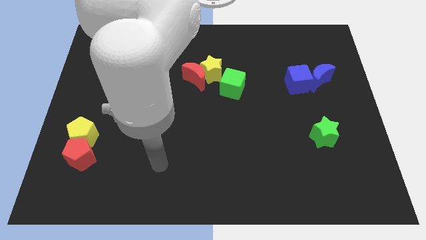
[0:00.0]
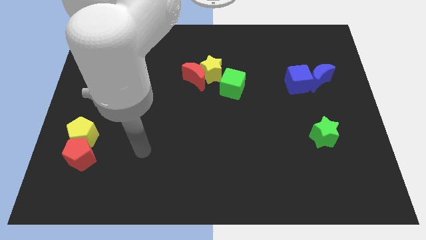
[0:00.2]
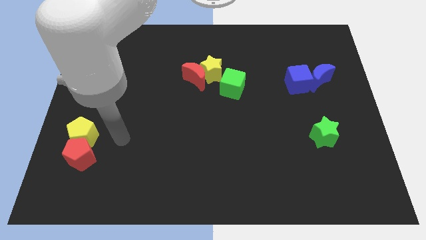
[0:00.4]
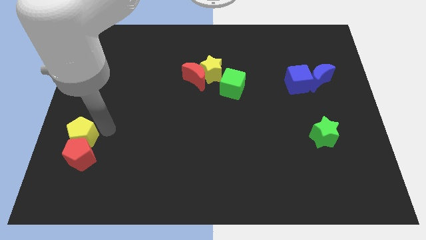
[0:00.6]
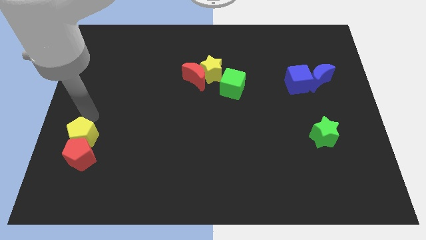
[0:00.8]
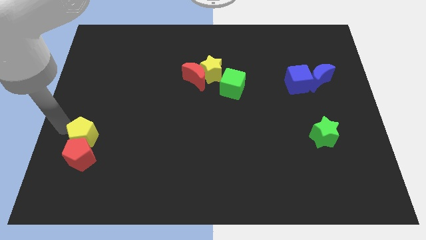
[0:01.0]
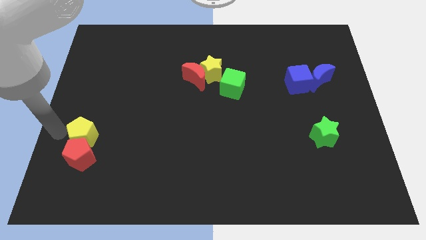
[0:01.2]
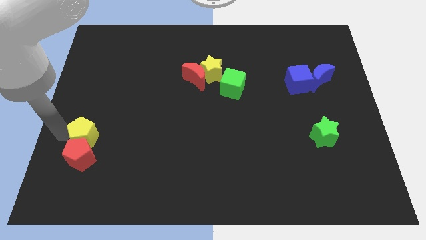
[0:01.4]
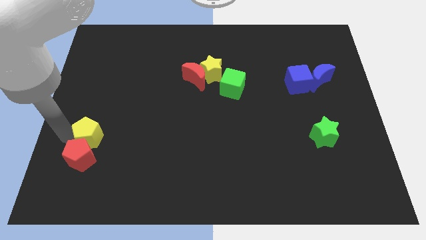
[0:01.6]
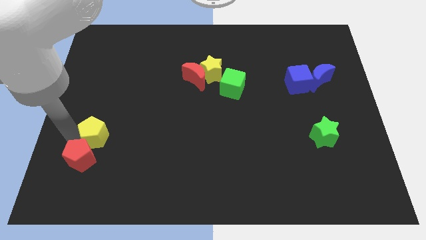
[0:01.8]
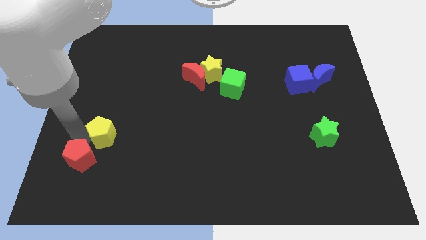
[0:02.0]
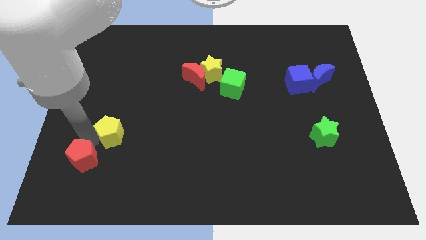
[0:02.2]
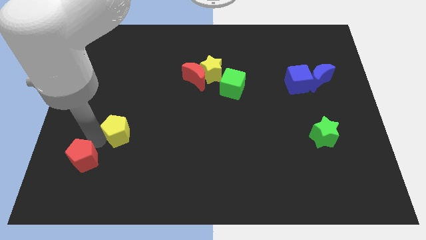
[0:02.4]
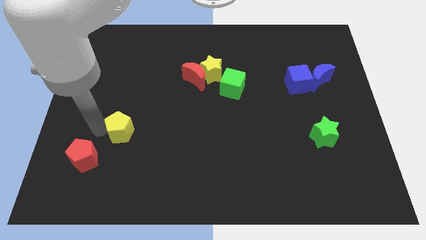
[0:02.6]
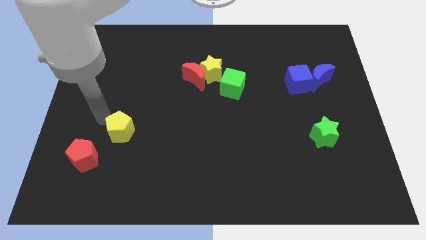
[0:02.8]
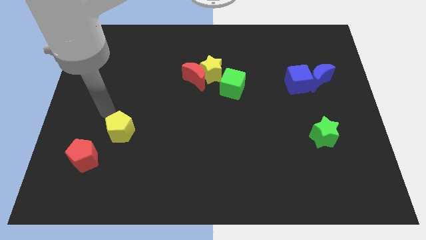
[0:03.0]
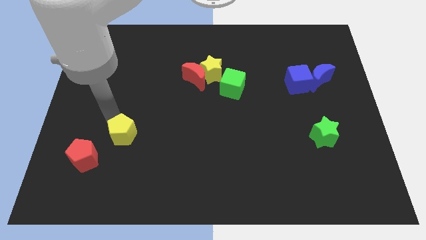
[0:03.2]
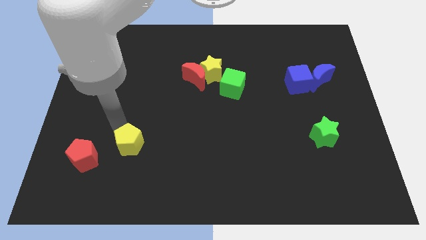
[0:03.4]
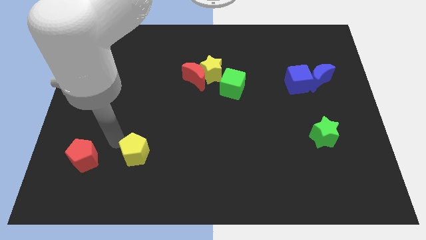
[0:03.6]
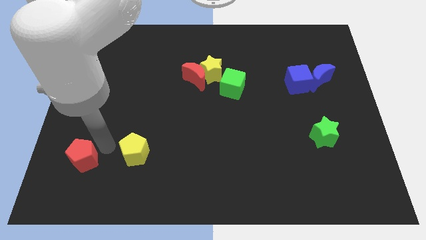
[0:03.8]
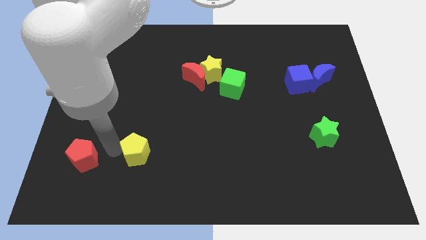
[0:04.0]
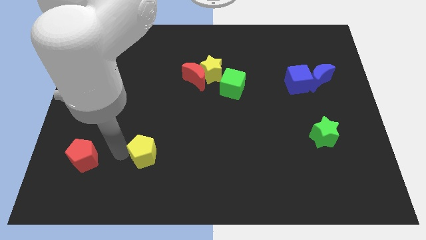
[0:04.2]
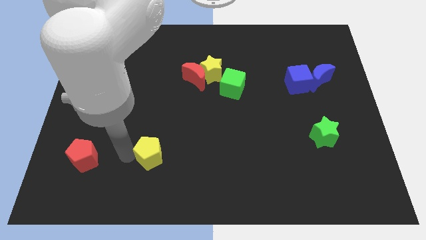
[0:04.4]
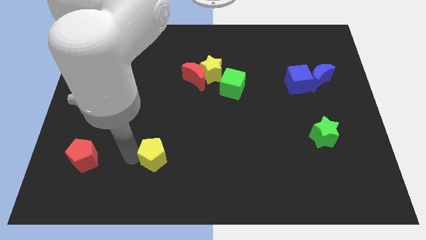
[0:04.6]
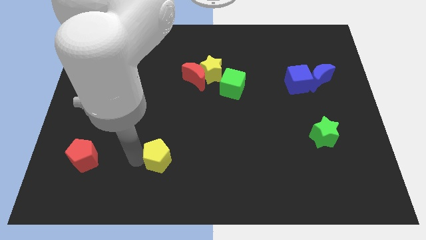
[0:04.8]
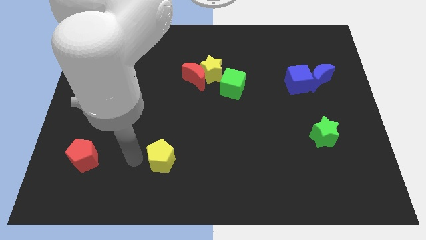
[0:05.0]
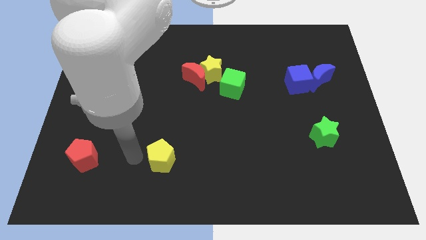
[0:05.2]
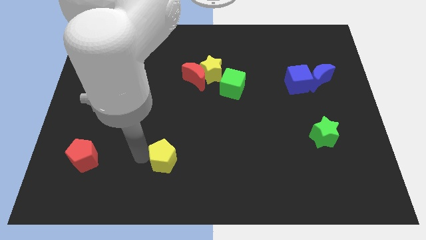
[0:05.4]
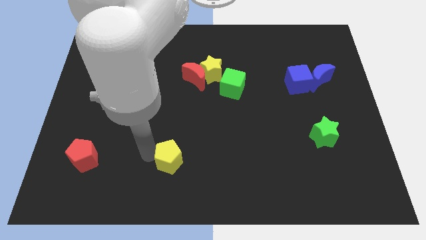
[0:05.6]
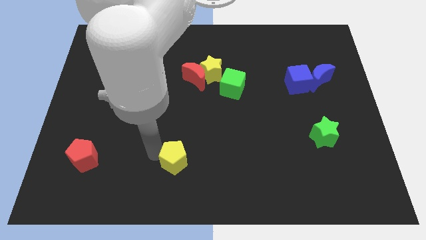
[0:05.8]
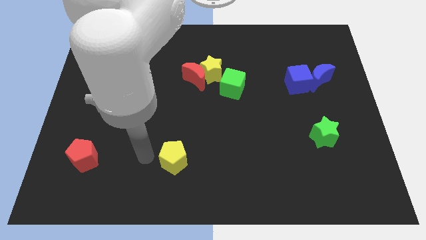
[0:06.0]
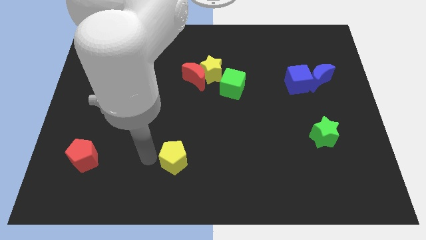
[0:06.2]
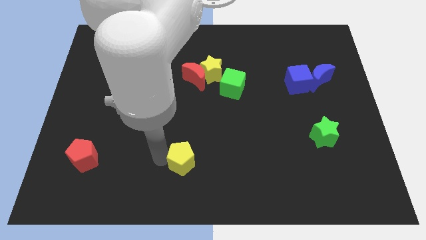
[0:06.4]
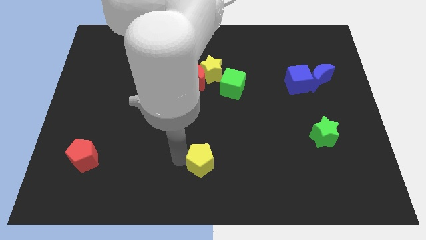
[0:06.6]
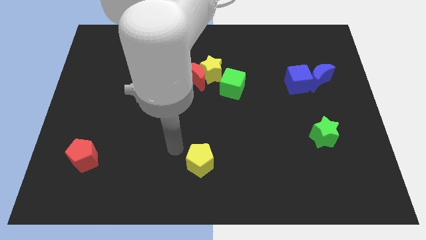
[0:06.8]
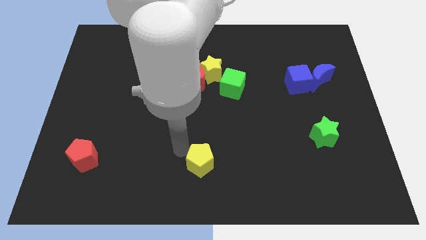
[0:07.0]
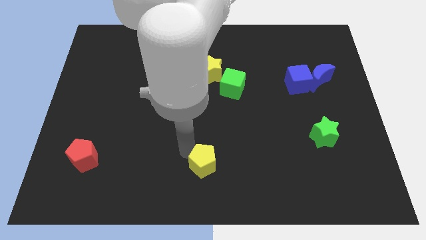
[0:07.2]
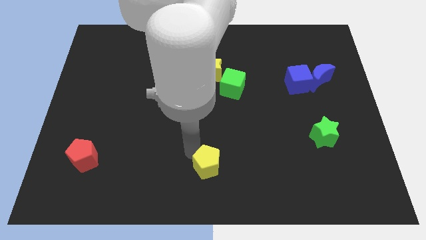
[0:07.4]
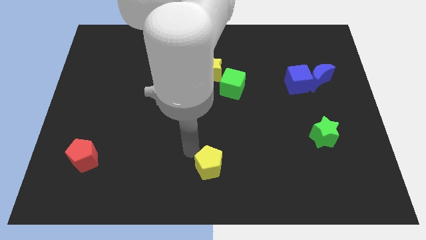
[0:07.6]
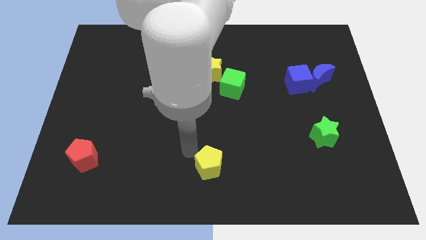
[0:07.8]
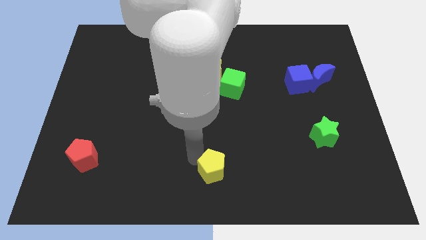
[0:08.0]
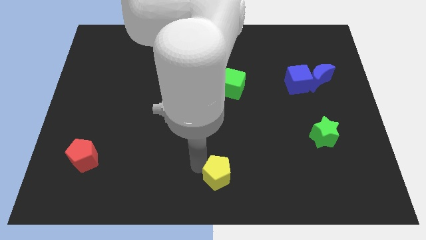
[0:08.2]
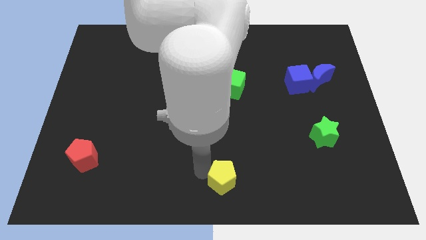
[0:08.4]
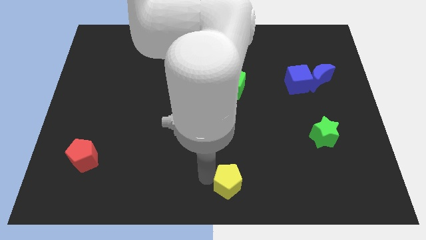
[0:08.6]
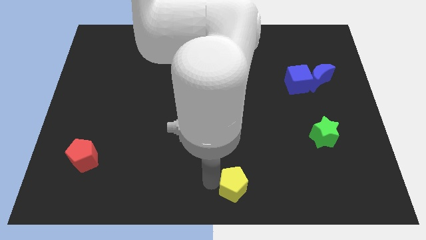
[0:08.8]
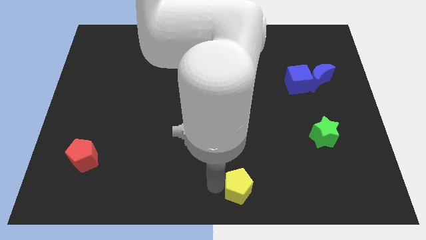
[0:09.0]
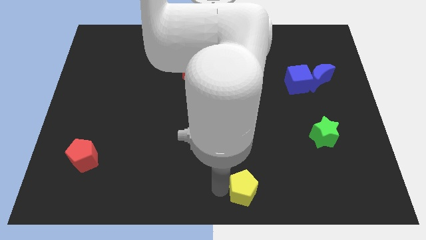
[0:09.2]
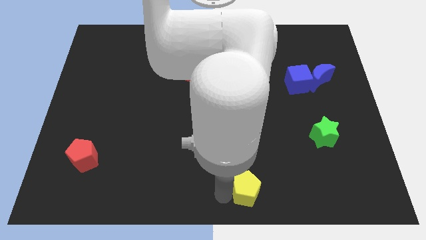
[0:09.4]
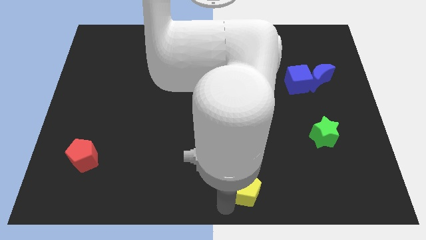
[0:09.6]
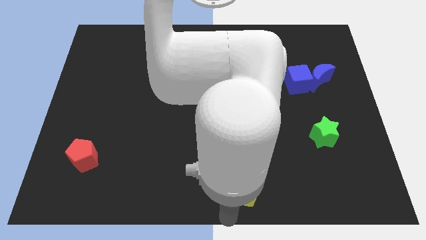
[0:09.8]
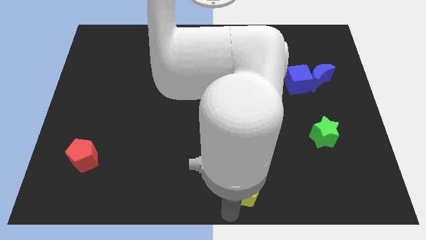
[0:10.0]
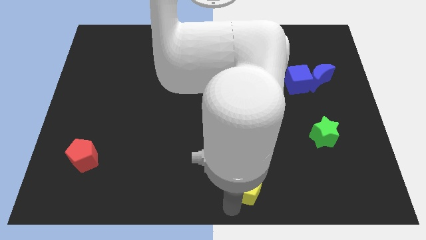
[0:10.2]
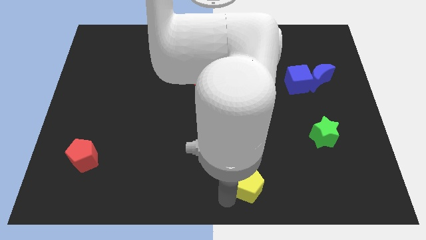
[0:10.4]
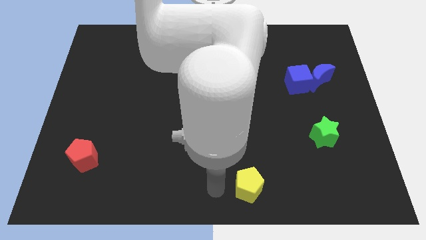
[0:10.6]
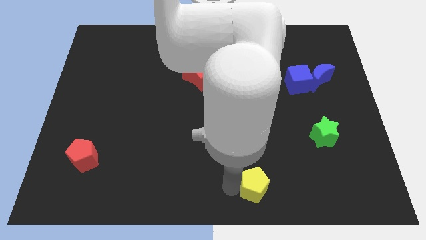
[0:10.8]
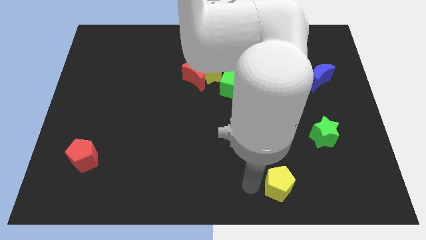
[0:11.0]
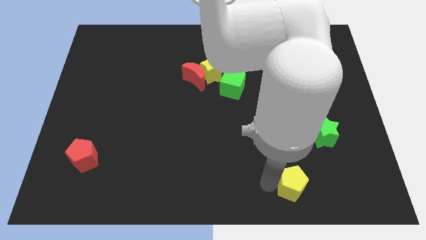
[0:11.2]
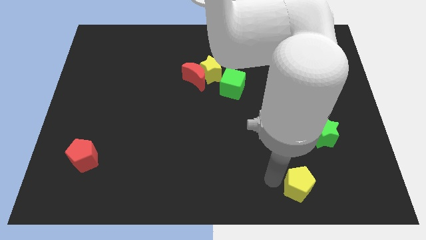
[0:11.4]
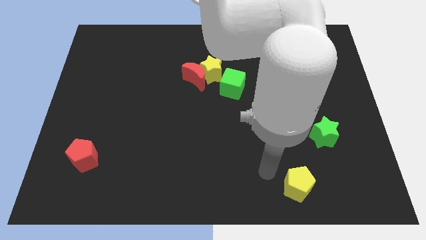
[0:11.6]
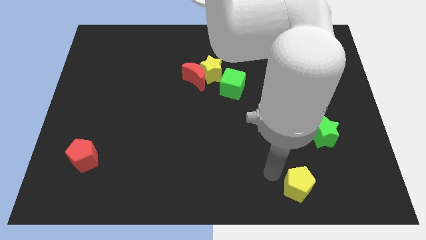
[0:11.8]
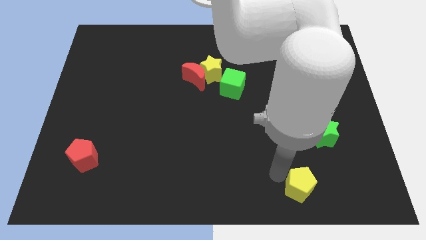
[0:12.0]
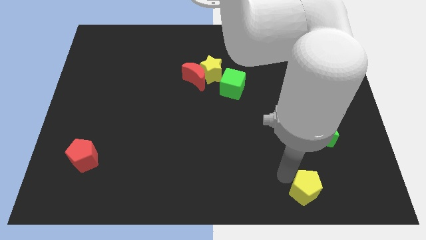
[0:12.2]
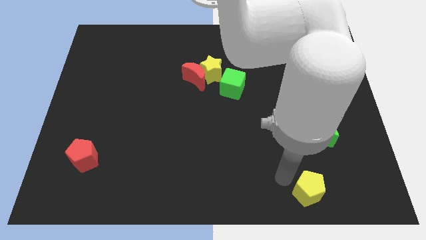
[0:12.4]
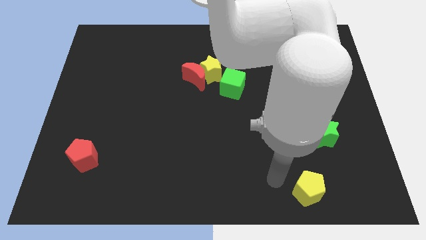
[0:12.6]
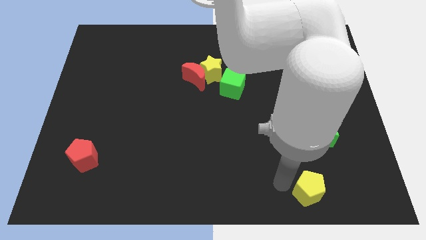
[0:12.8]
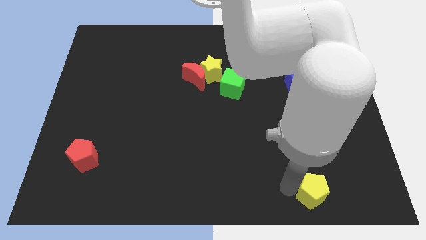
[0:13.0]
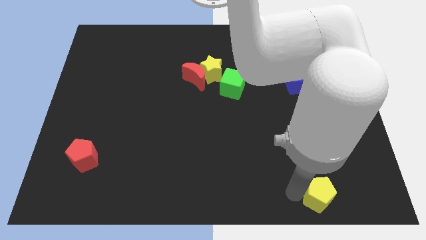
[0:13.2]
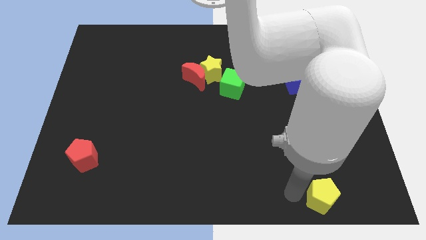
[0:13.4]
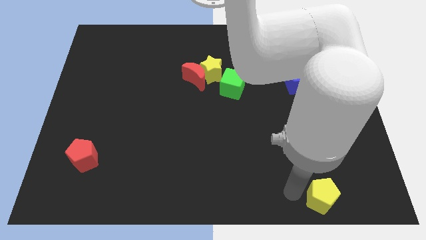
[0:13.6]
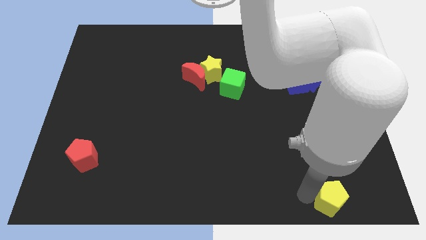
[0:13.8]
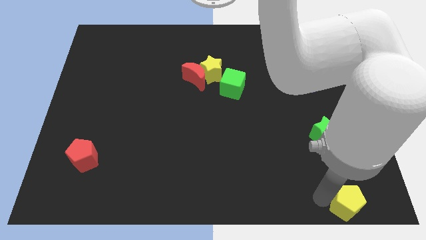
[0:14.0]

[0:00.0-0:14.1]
slide the yellow pentagon to the lower right corner
